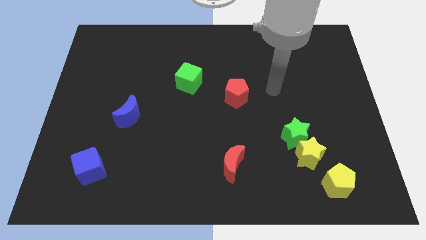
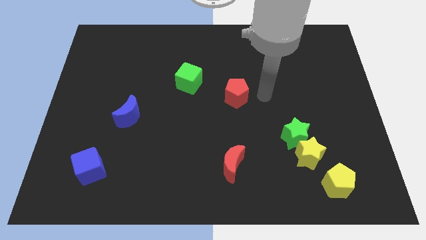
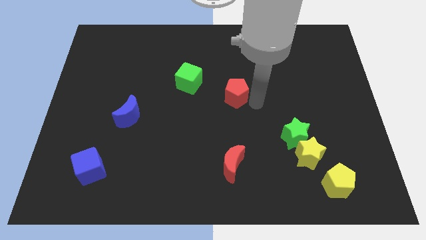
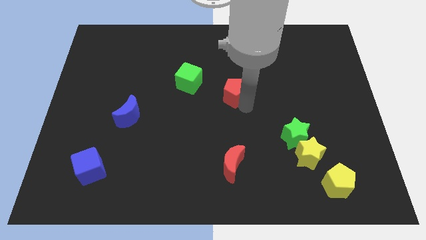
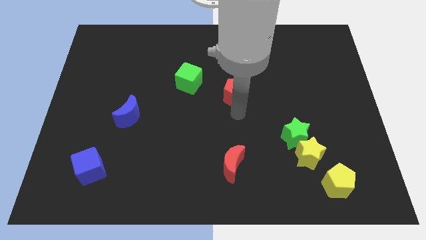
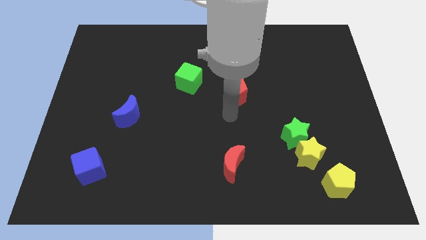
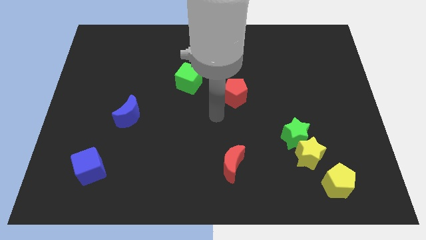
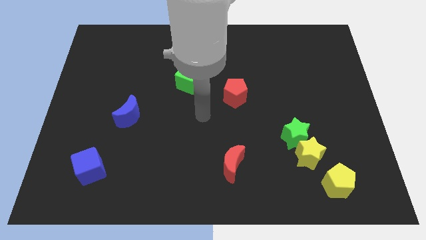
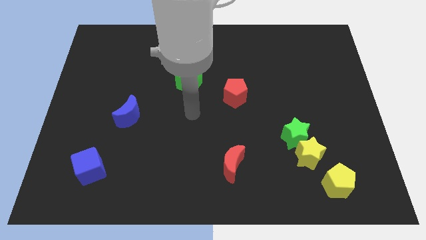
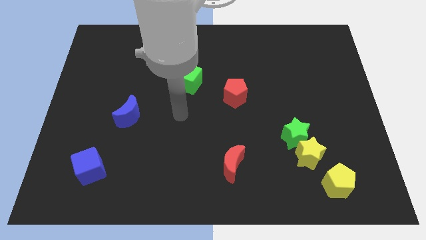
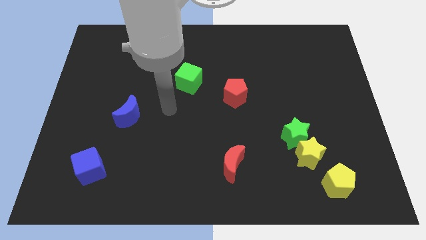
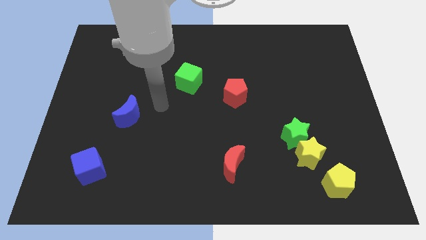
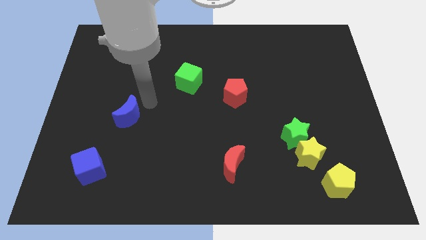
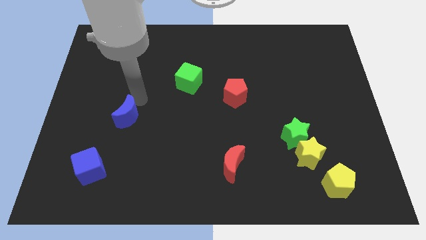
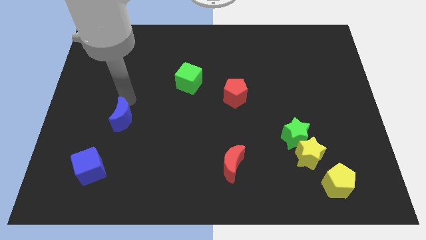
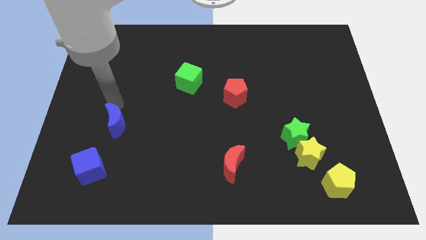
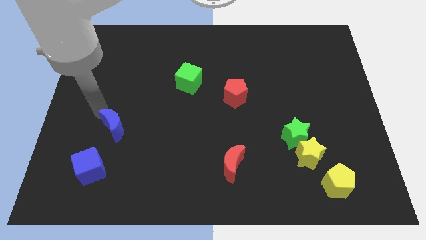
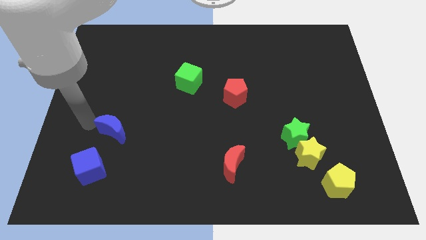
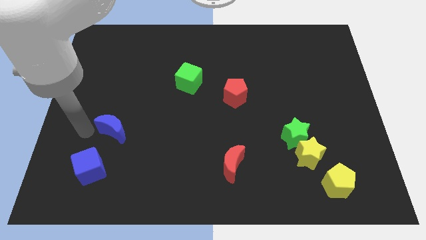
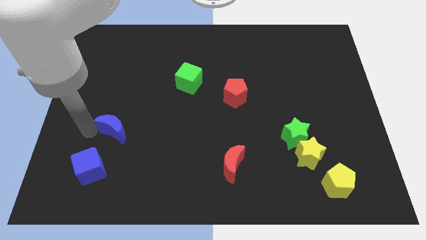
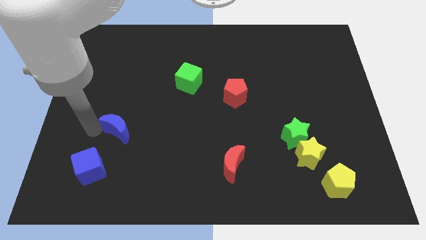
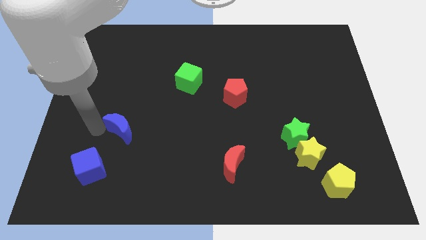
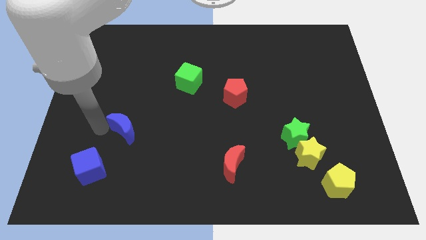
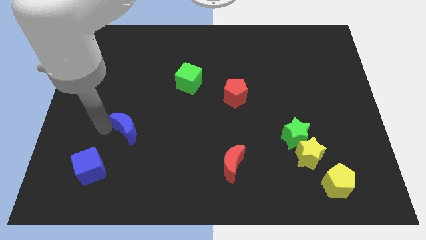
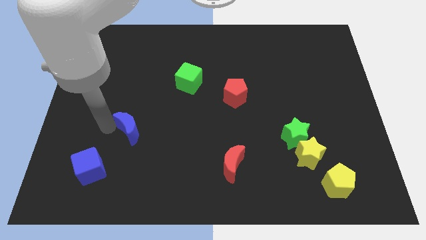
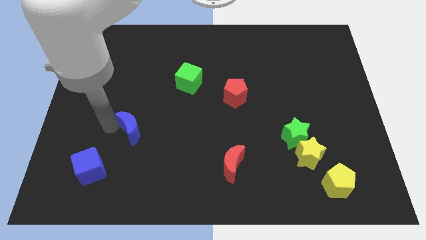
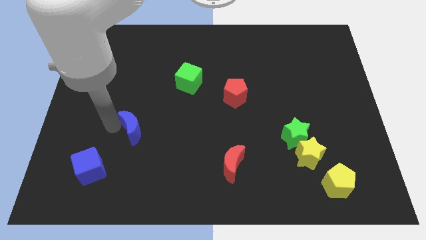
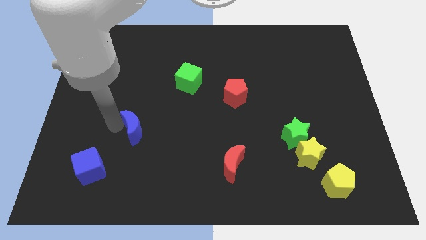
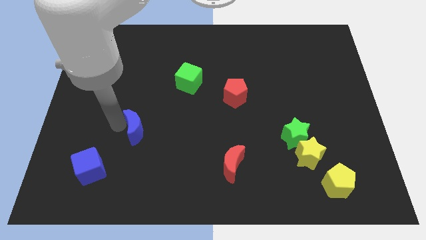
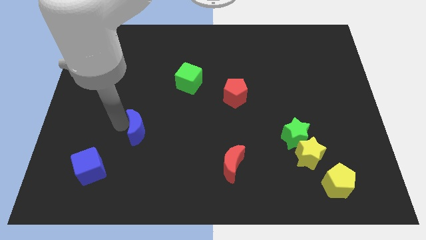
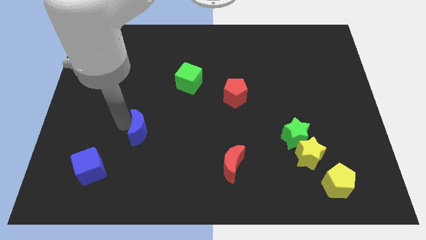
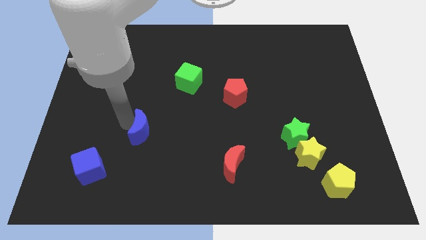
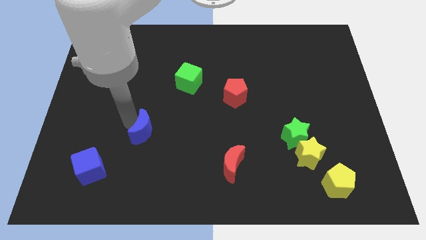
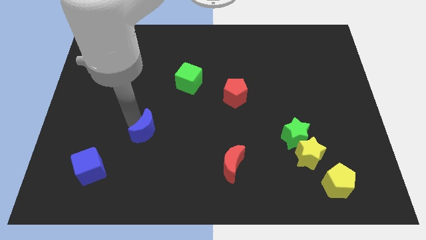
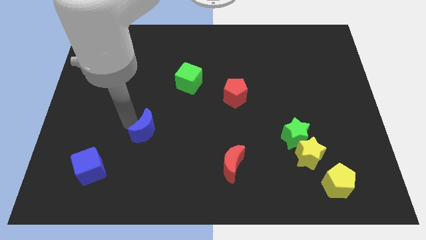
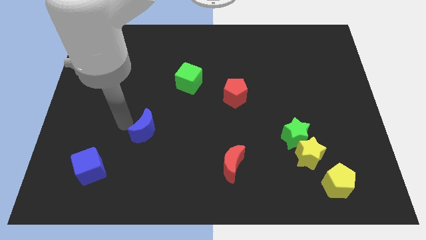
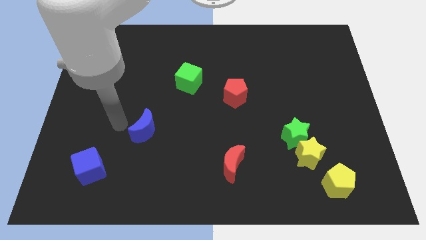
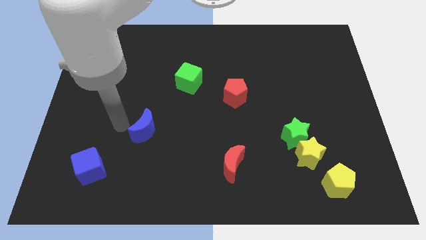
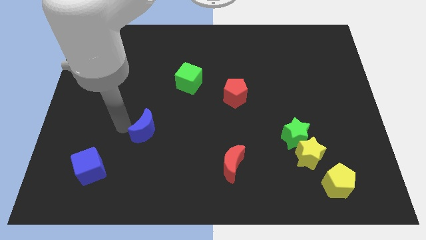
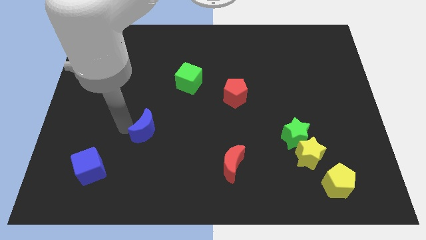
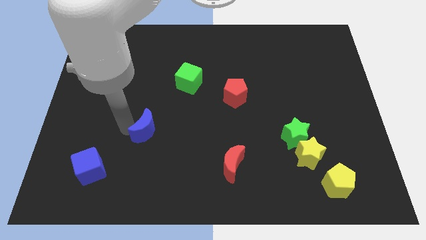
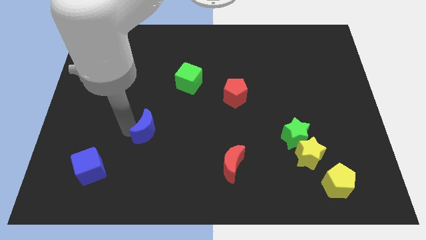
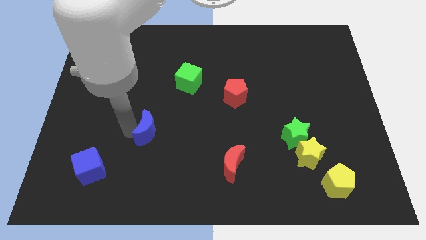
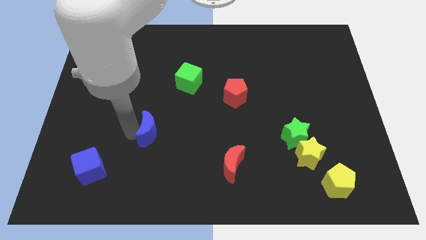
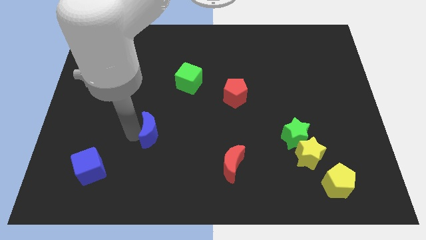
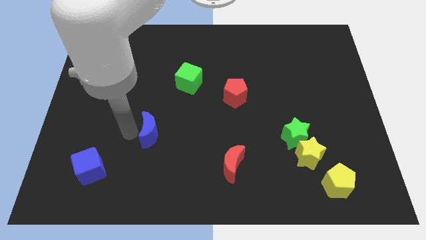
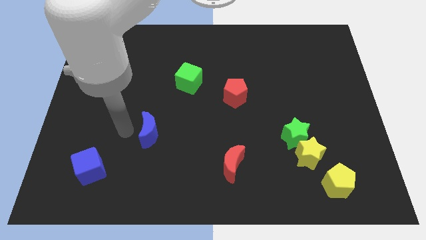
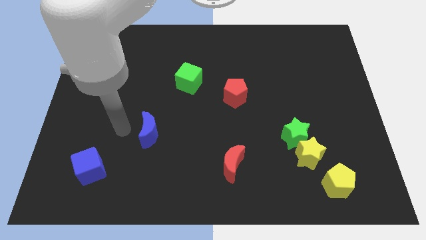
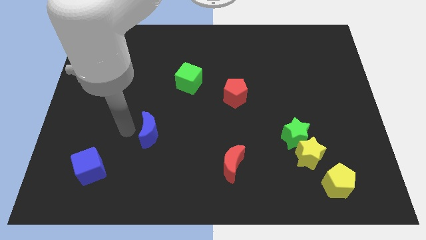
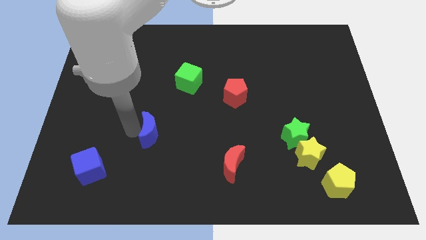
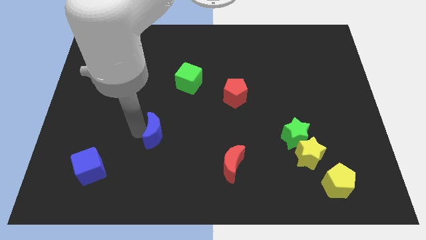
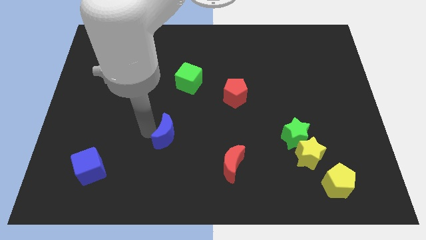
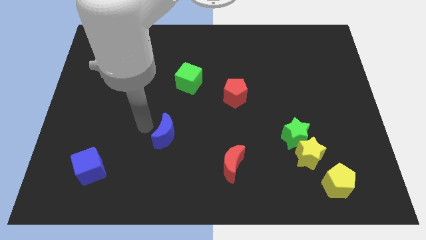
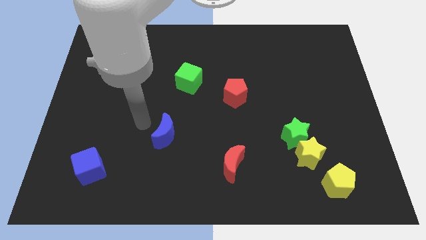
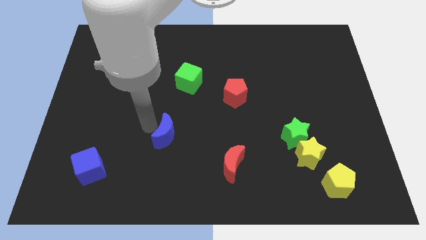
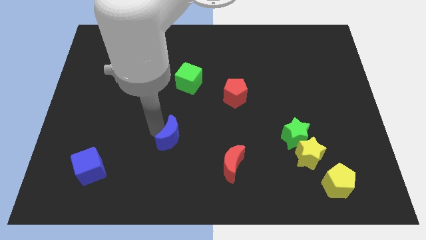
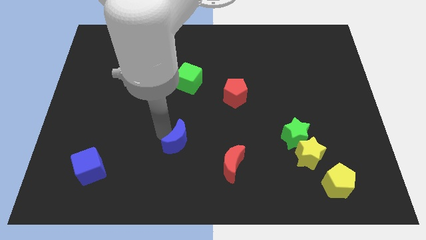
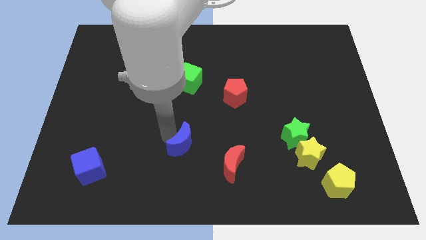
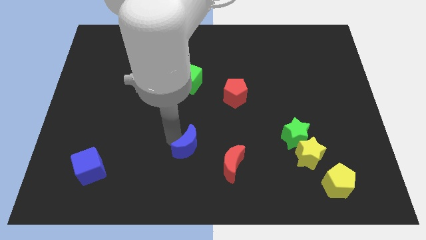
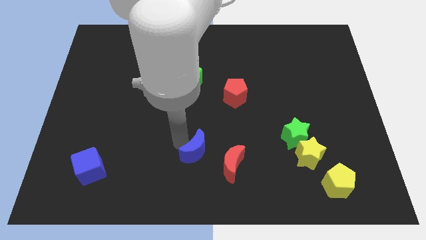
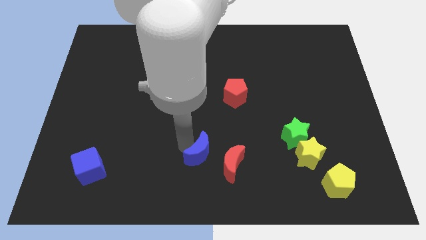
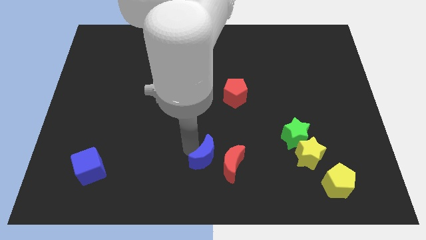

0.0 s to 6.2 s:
move the blue moon towards the red moon

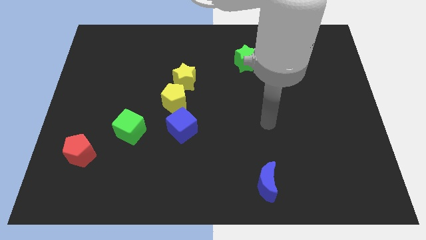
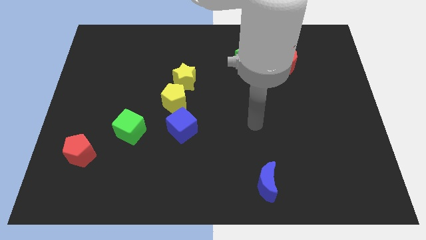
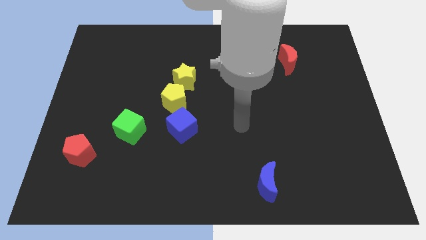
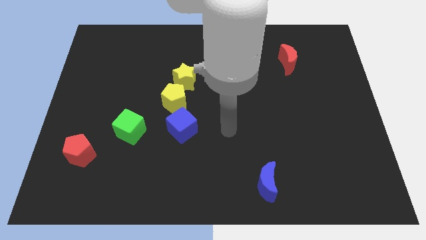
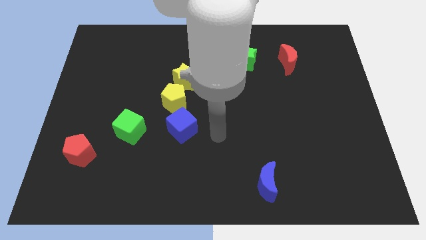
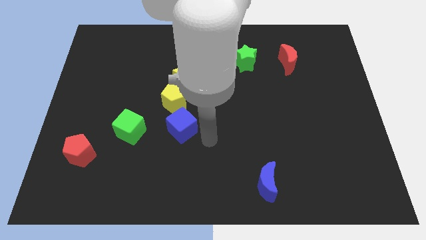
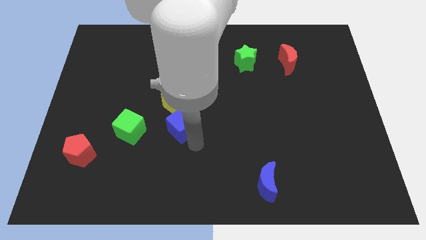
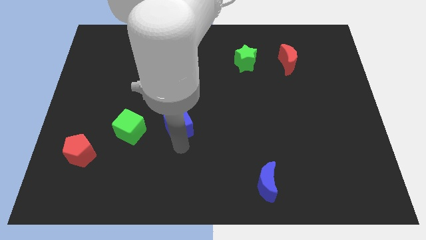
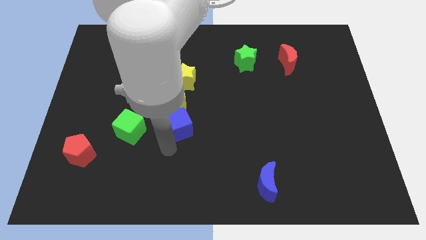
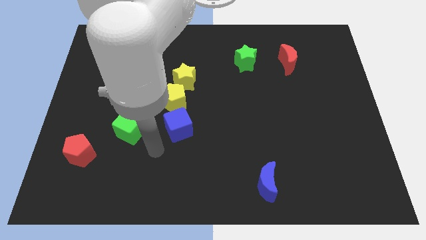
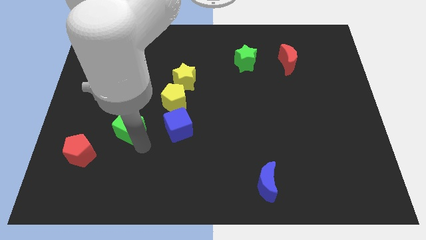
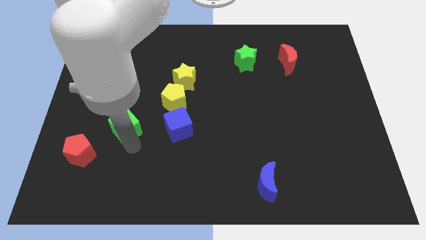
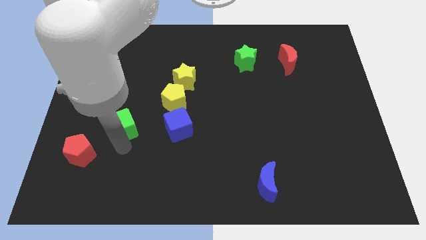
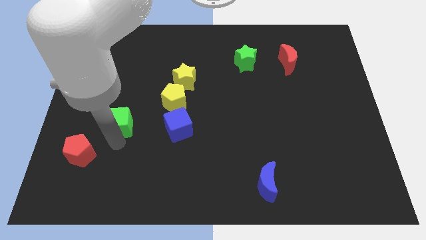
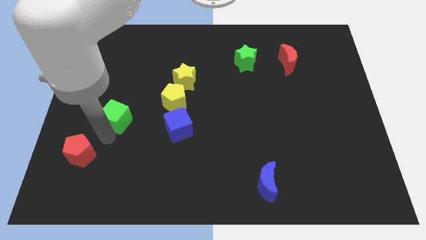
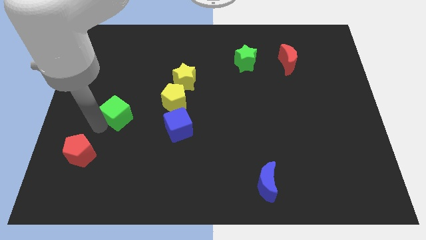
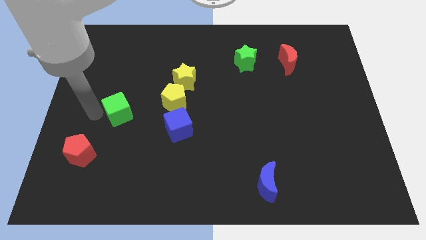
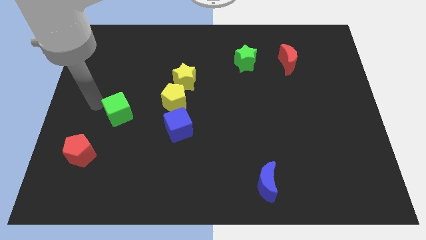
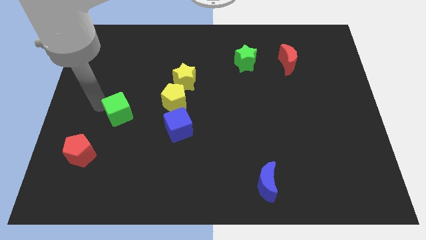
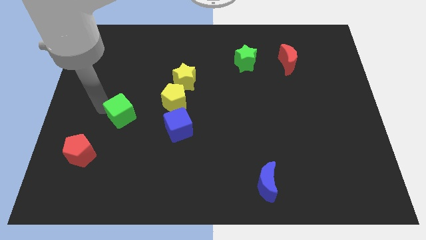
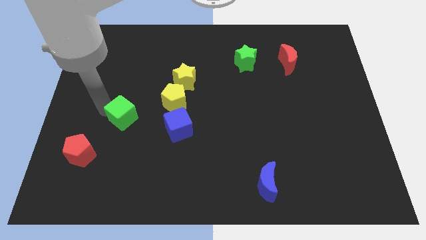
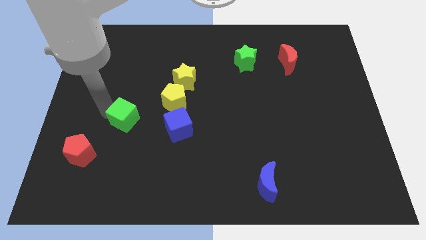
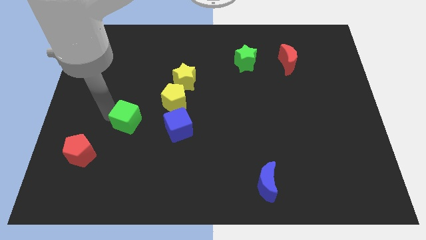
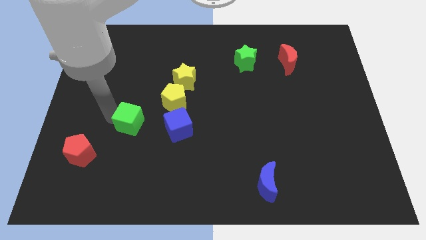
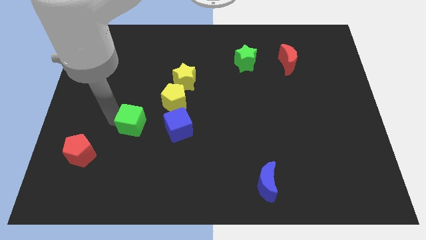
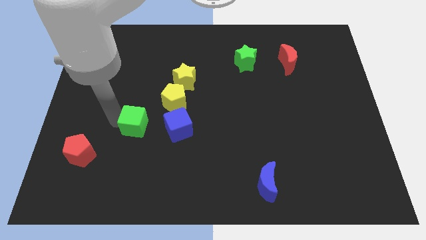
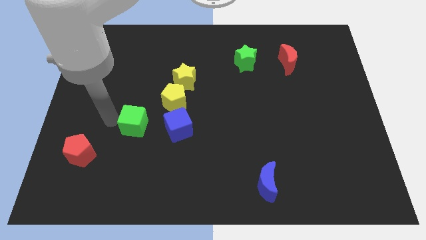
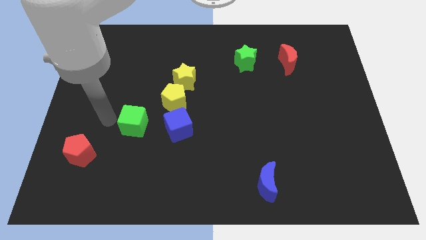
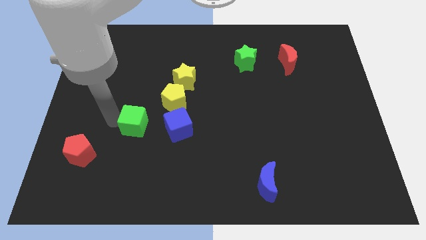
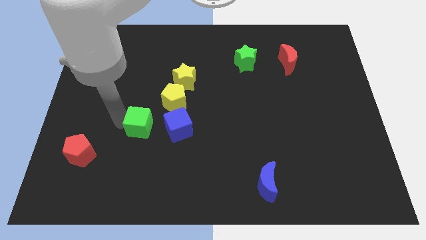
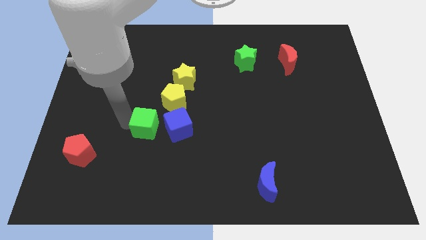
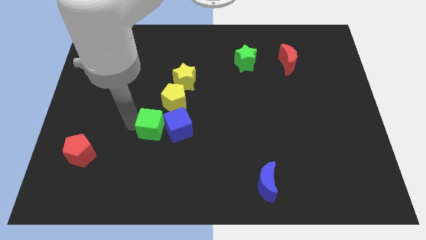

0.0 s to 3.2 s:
put the green cube to the blue cube
